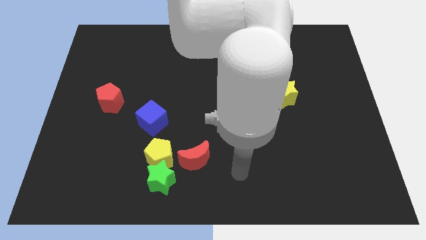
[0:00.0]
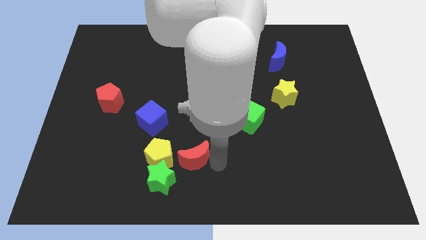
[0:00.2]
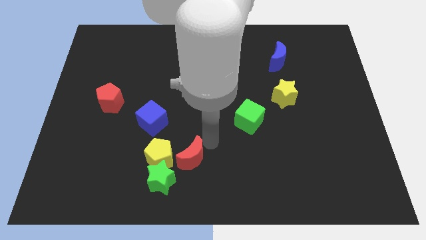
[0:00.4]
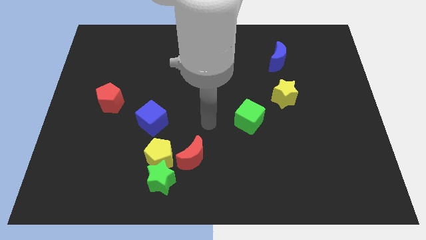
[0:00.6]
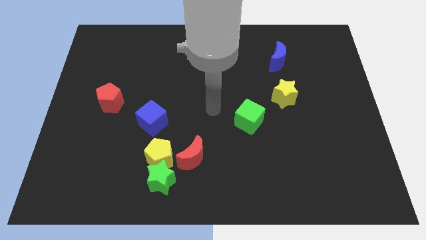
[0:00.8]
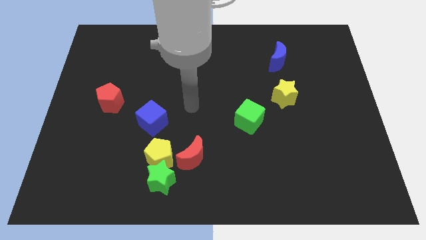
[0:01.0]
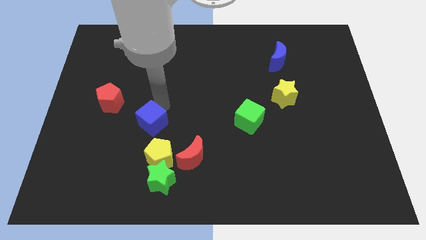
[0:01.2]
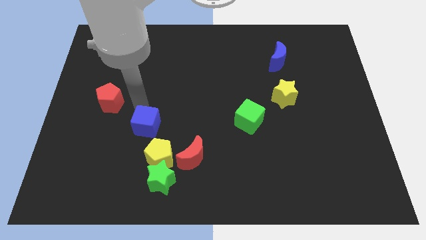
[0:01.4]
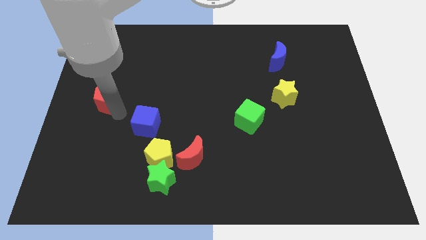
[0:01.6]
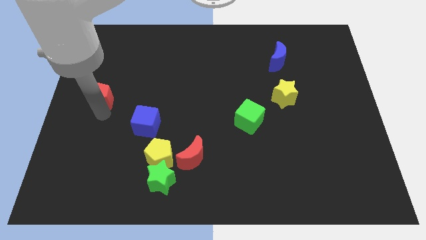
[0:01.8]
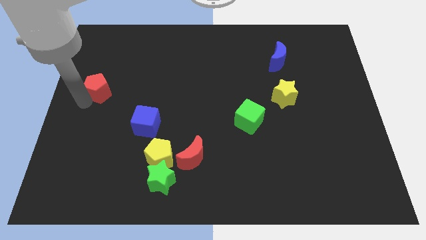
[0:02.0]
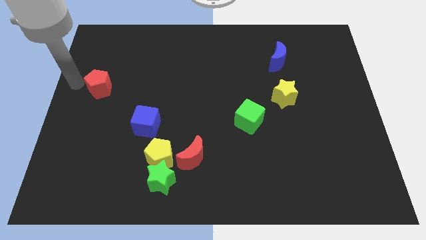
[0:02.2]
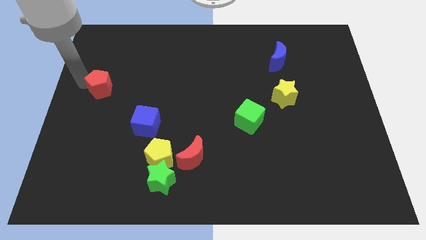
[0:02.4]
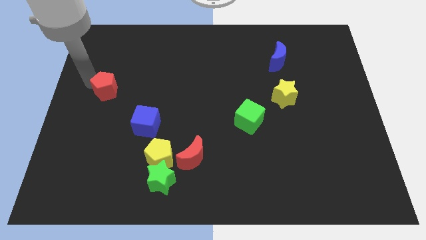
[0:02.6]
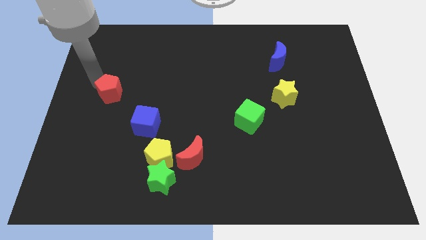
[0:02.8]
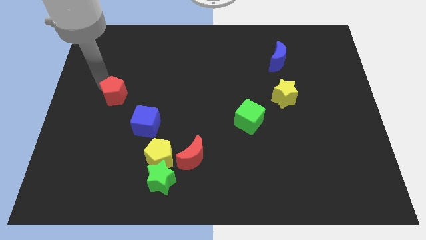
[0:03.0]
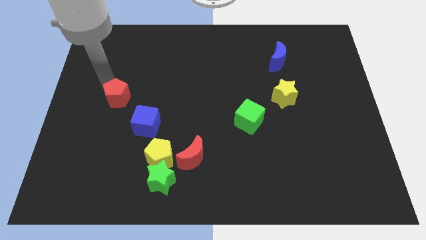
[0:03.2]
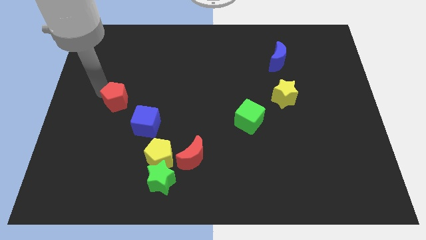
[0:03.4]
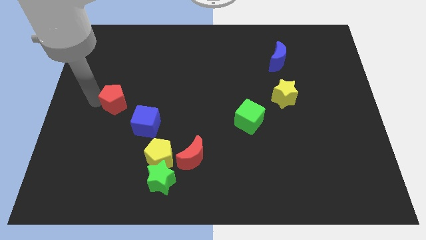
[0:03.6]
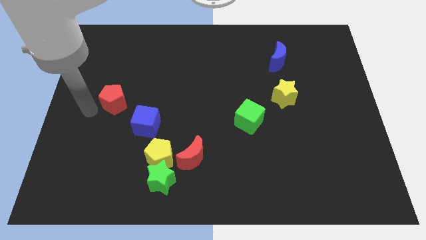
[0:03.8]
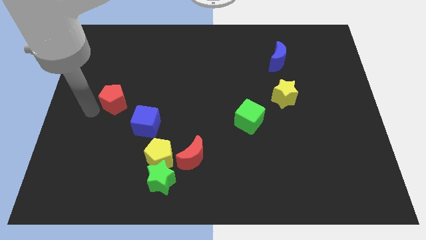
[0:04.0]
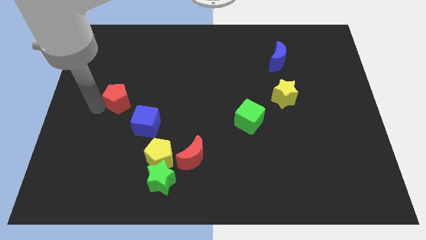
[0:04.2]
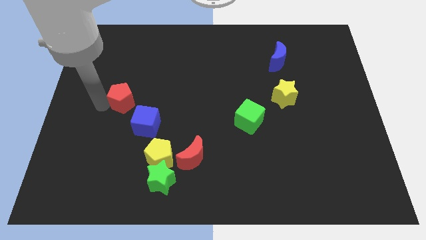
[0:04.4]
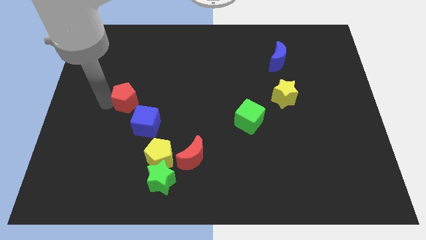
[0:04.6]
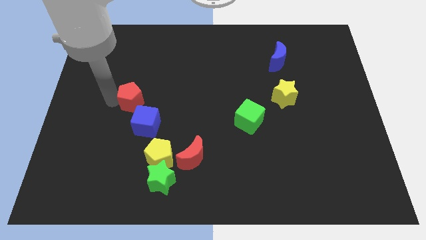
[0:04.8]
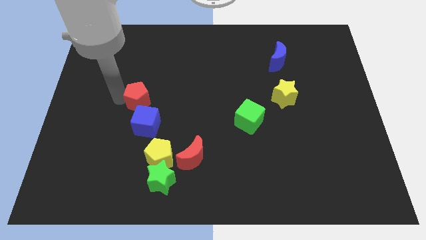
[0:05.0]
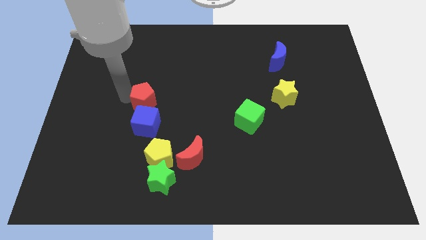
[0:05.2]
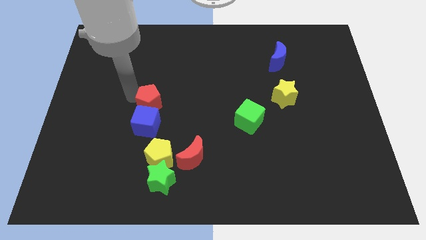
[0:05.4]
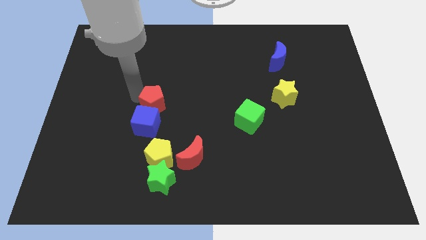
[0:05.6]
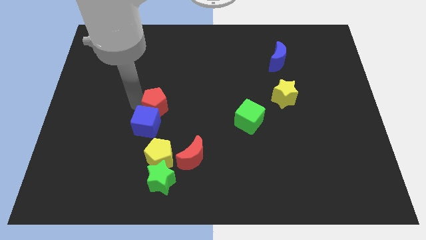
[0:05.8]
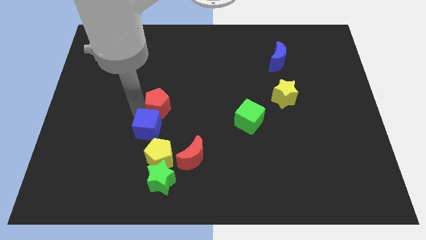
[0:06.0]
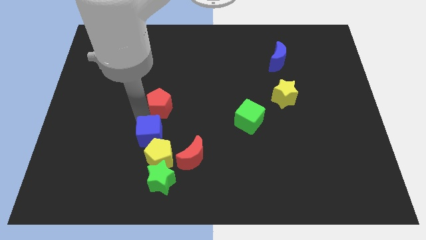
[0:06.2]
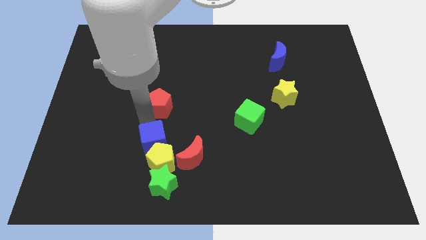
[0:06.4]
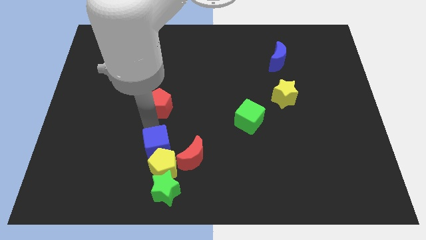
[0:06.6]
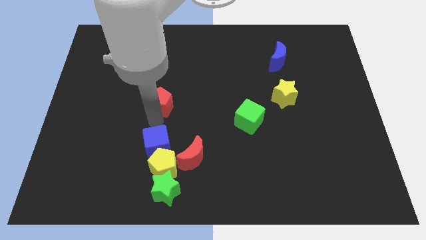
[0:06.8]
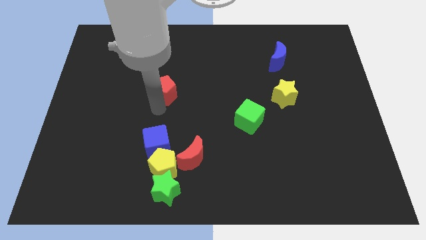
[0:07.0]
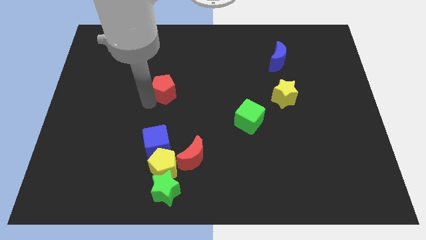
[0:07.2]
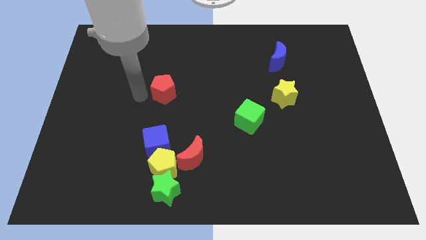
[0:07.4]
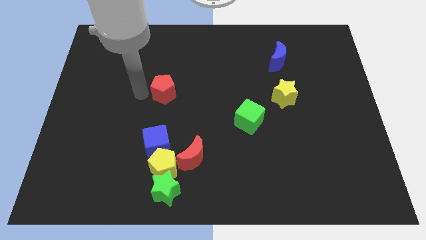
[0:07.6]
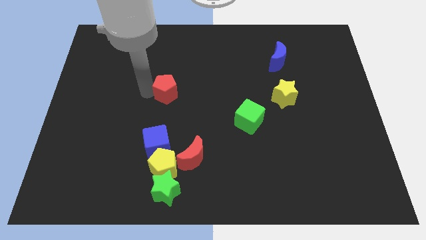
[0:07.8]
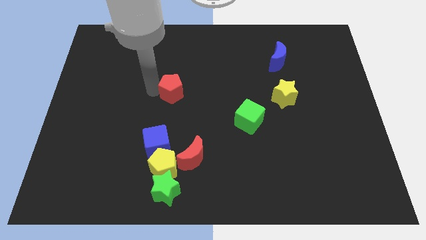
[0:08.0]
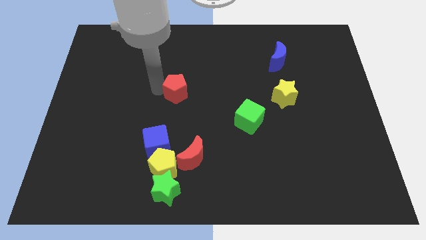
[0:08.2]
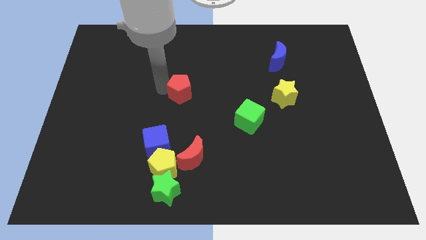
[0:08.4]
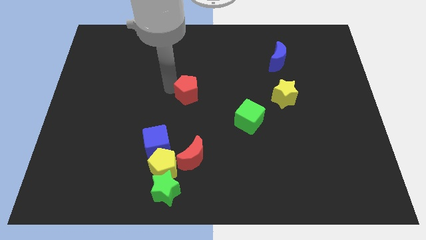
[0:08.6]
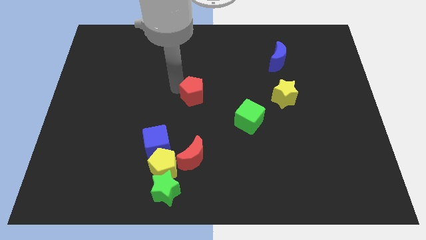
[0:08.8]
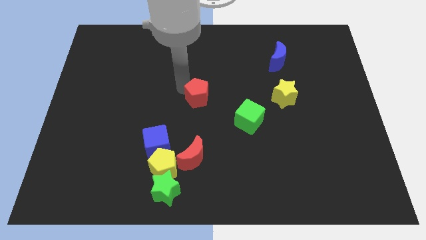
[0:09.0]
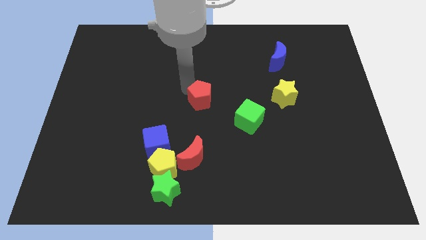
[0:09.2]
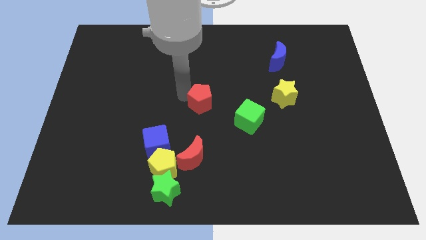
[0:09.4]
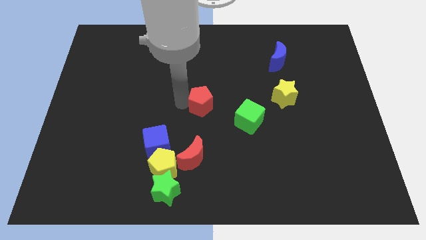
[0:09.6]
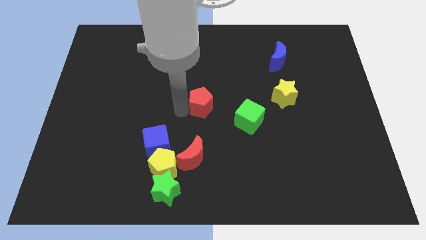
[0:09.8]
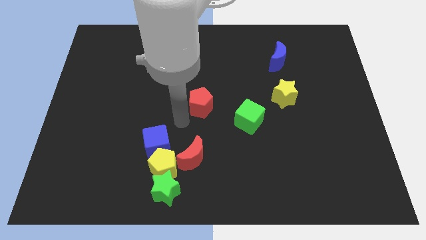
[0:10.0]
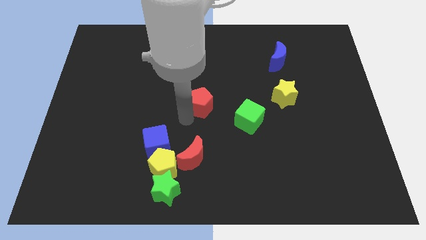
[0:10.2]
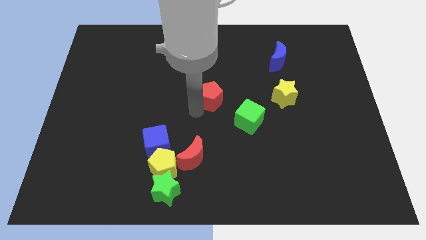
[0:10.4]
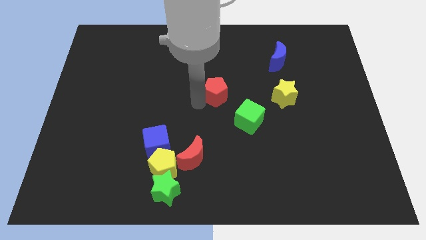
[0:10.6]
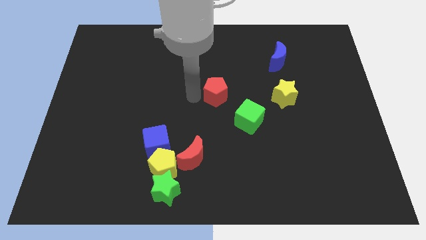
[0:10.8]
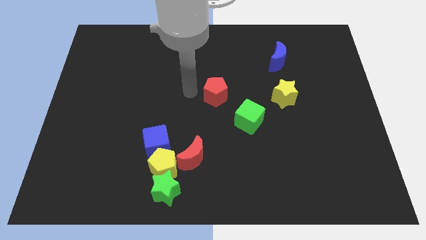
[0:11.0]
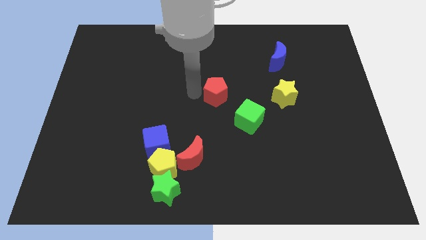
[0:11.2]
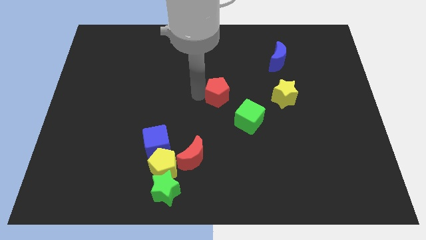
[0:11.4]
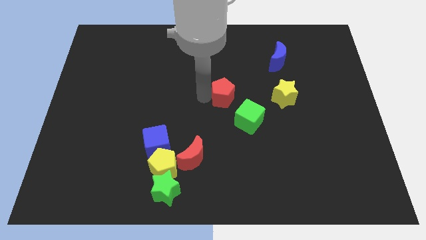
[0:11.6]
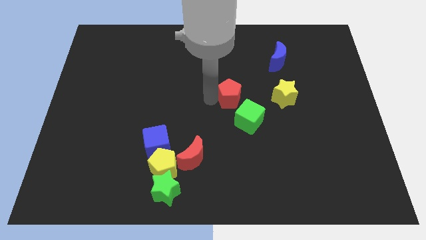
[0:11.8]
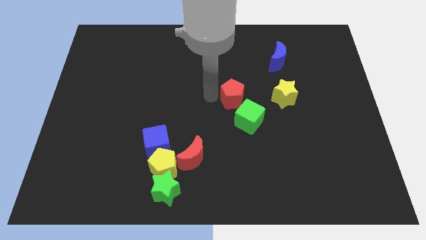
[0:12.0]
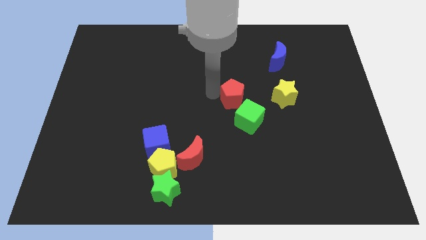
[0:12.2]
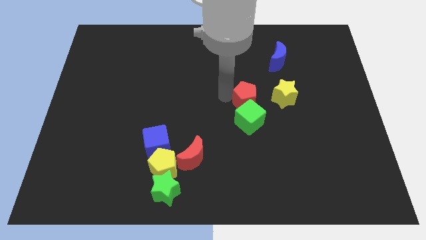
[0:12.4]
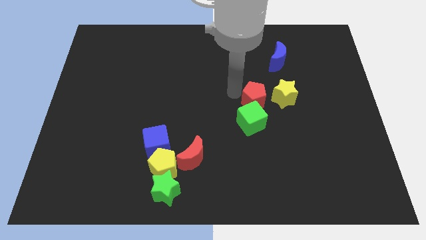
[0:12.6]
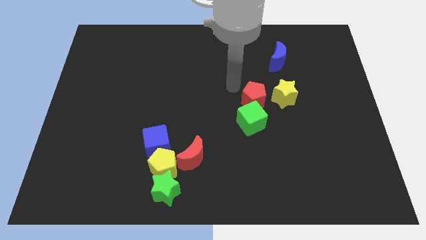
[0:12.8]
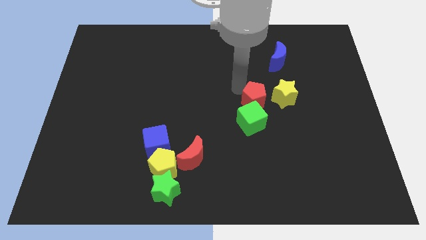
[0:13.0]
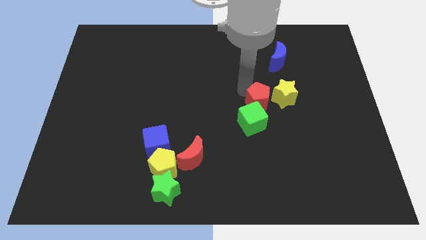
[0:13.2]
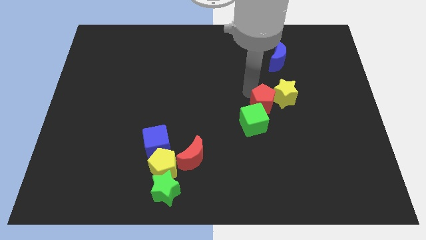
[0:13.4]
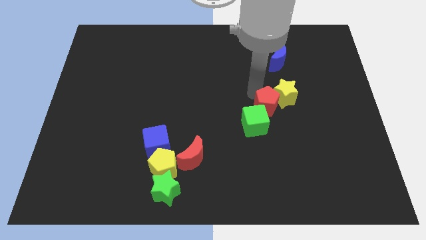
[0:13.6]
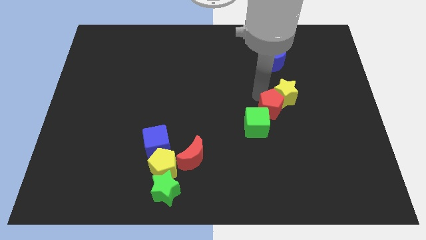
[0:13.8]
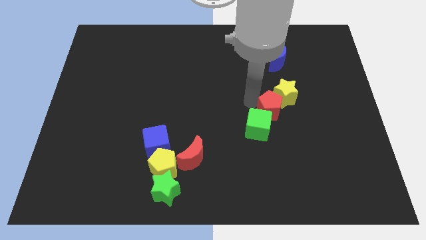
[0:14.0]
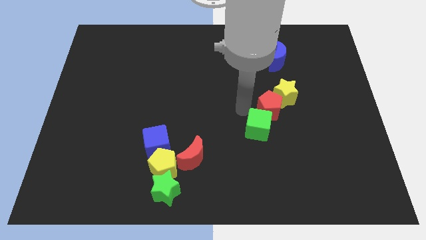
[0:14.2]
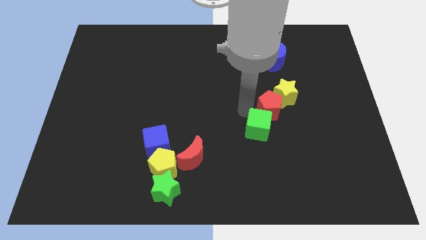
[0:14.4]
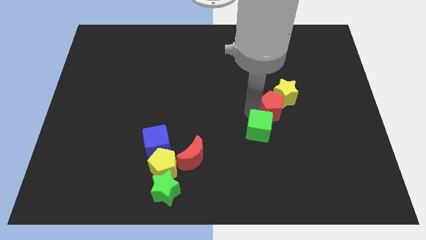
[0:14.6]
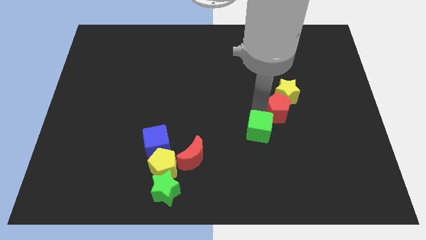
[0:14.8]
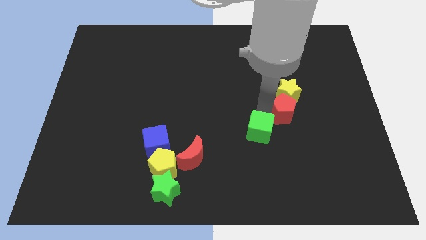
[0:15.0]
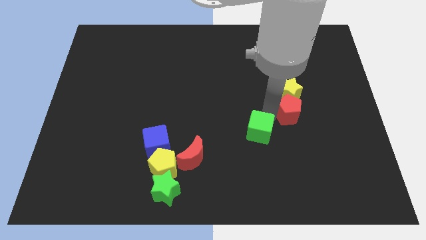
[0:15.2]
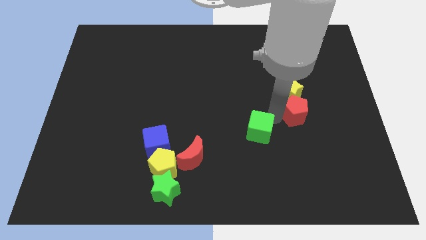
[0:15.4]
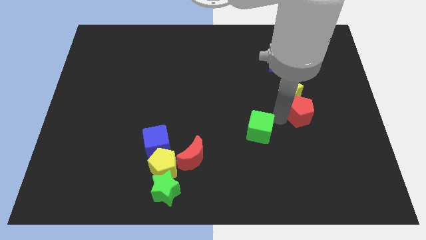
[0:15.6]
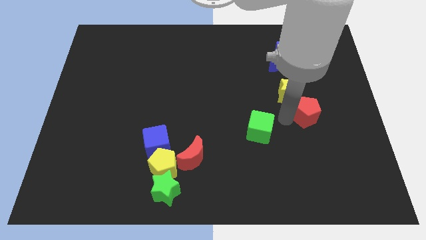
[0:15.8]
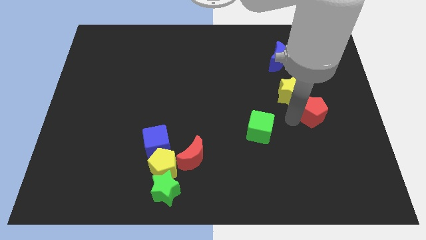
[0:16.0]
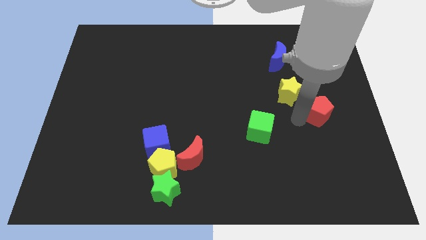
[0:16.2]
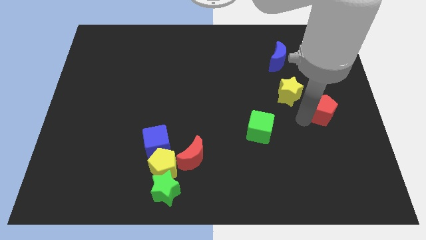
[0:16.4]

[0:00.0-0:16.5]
put the red pentagon to the right side of the board
